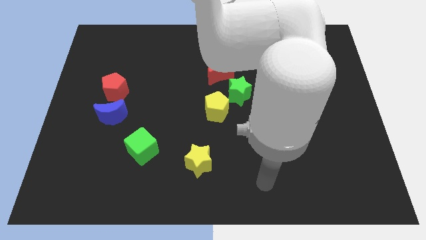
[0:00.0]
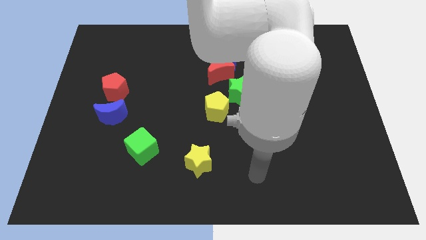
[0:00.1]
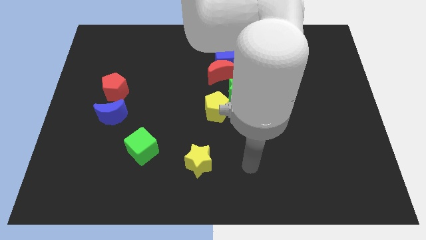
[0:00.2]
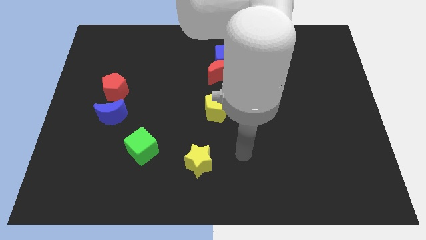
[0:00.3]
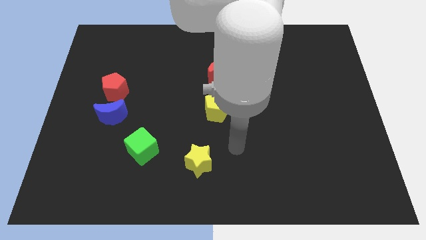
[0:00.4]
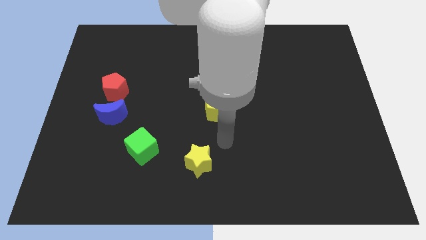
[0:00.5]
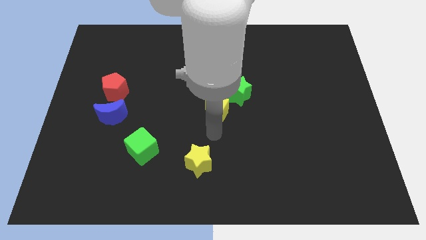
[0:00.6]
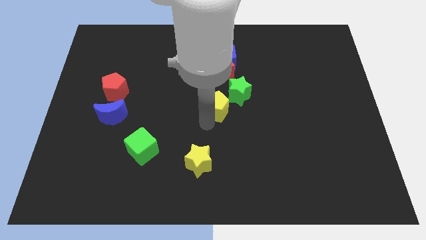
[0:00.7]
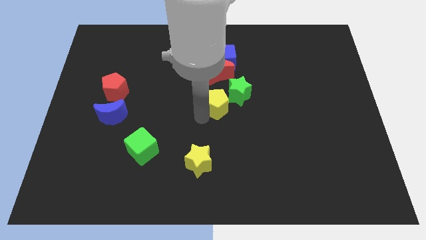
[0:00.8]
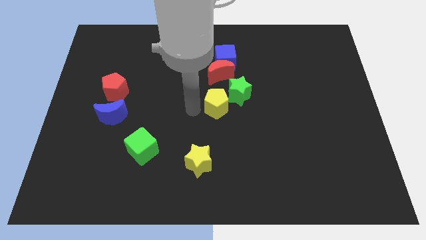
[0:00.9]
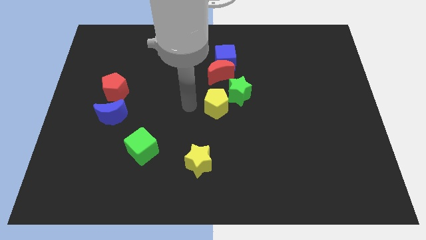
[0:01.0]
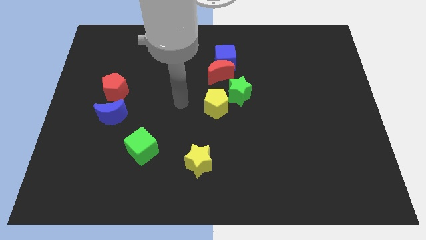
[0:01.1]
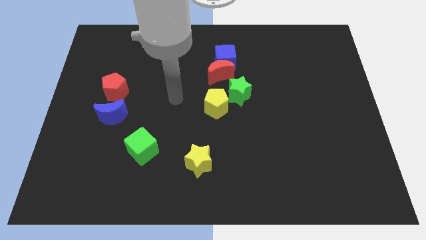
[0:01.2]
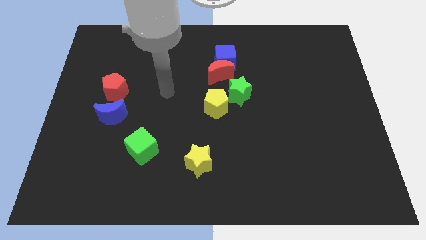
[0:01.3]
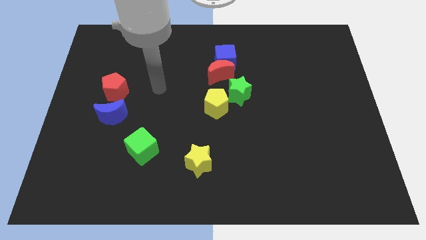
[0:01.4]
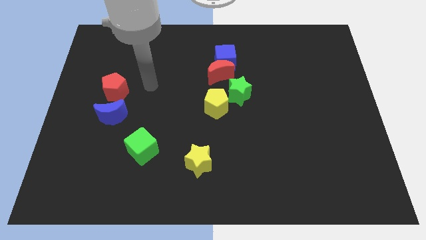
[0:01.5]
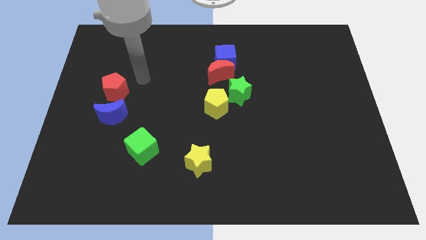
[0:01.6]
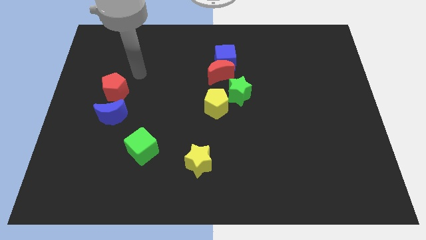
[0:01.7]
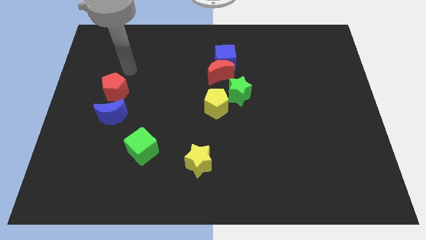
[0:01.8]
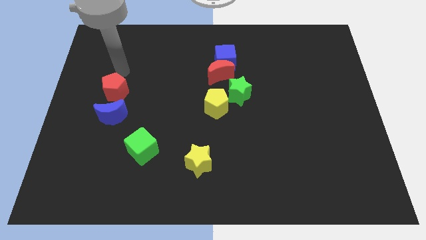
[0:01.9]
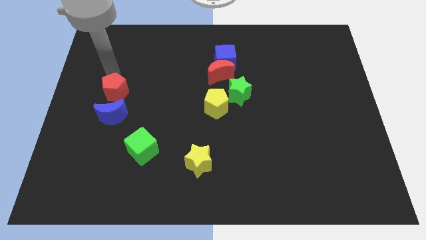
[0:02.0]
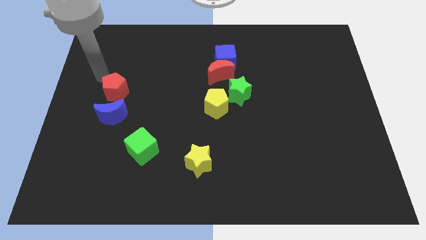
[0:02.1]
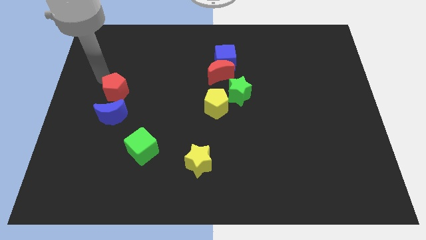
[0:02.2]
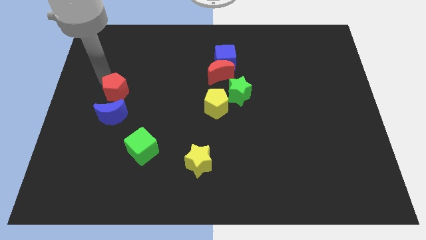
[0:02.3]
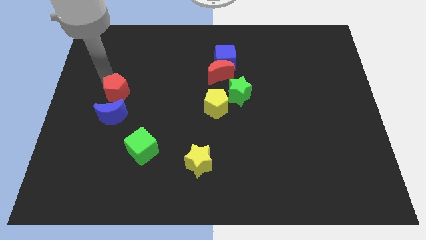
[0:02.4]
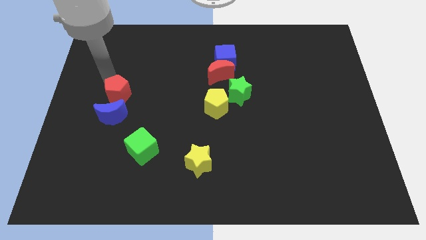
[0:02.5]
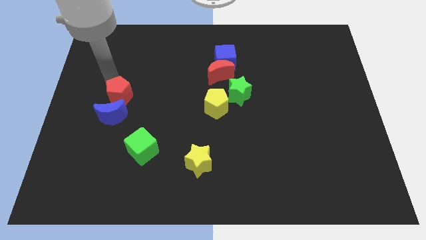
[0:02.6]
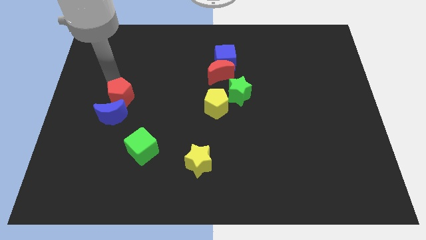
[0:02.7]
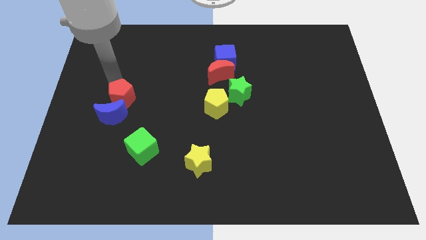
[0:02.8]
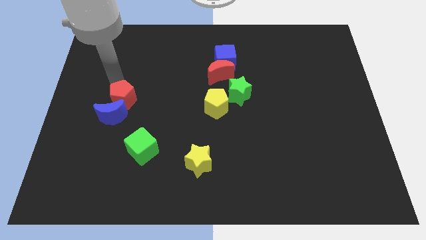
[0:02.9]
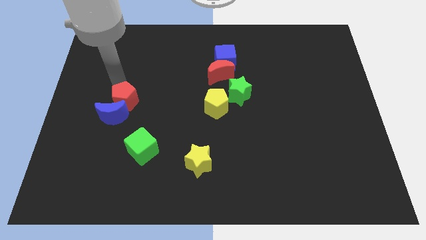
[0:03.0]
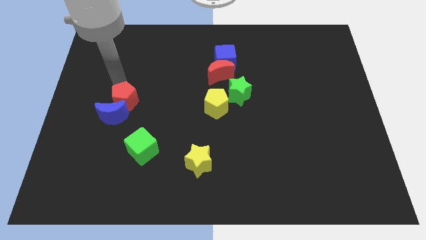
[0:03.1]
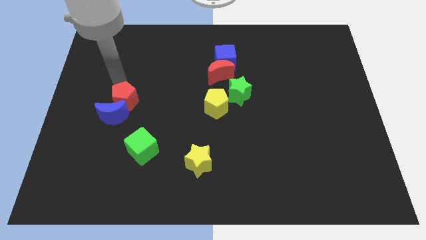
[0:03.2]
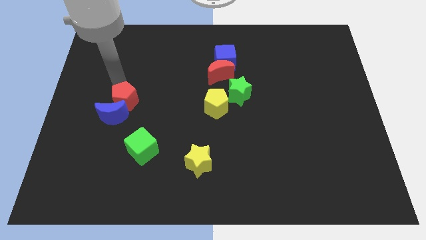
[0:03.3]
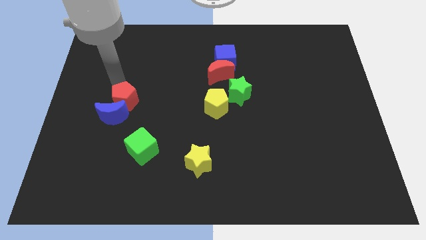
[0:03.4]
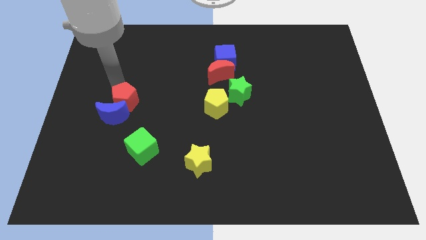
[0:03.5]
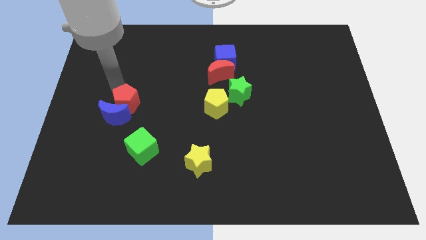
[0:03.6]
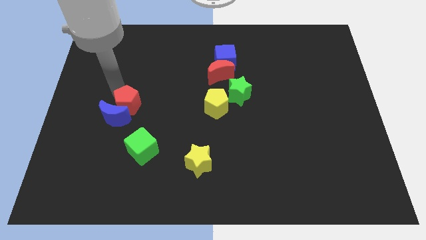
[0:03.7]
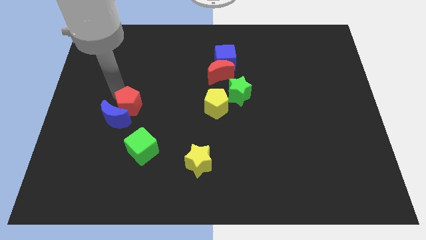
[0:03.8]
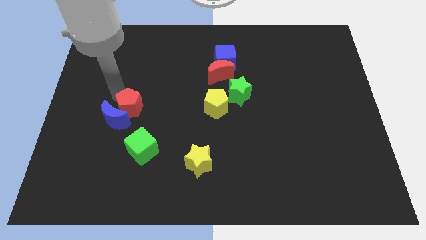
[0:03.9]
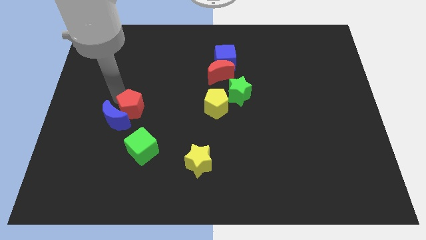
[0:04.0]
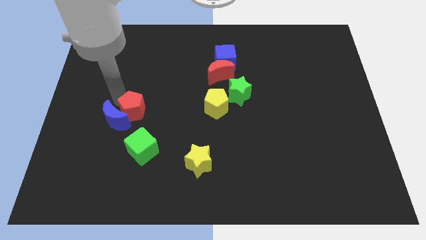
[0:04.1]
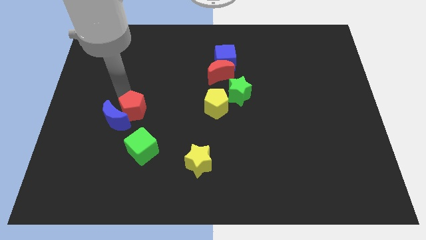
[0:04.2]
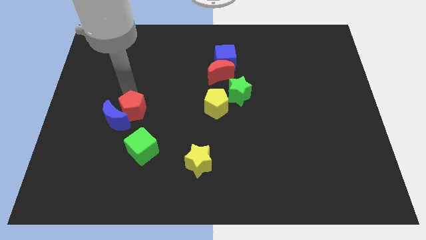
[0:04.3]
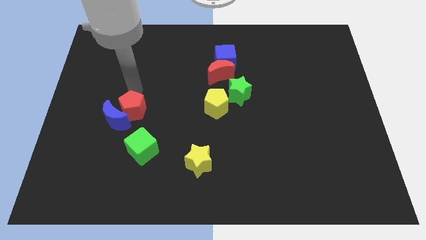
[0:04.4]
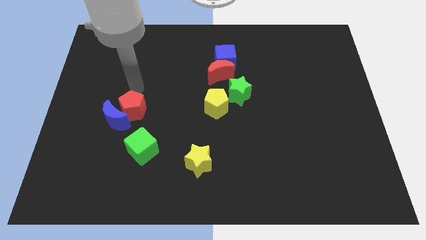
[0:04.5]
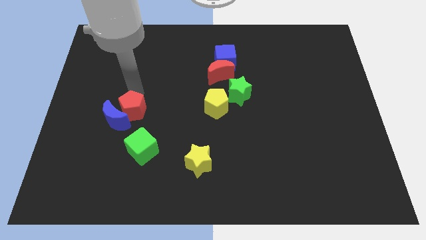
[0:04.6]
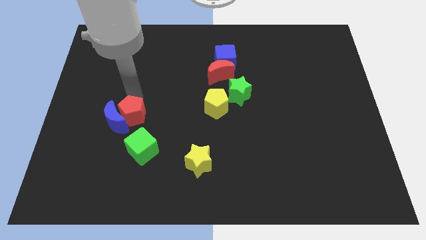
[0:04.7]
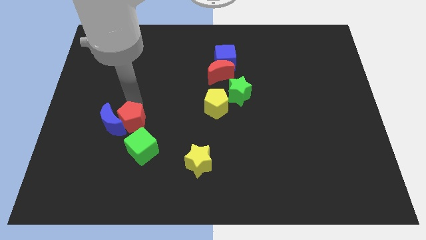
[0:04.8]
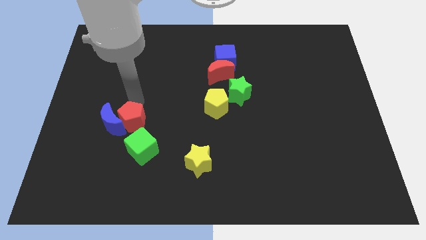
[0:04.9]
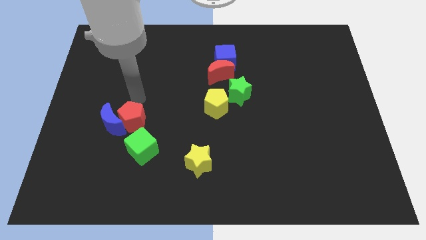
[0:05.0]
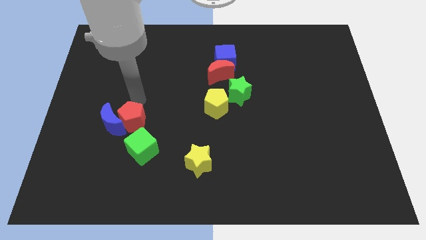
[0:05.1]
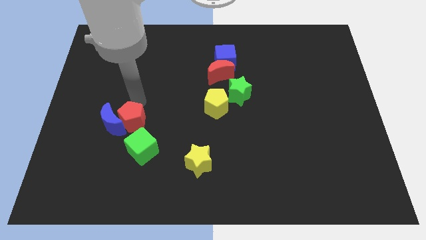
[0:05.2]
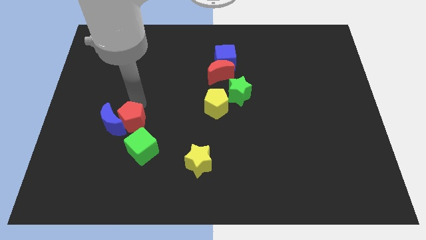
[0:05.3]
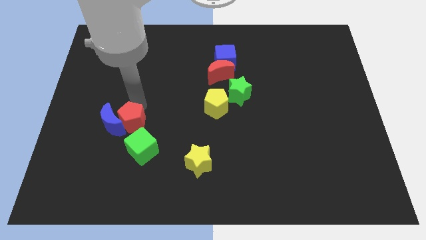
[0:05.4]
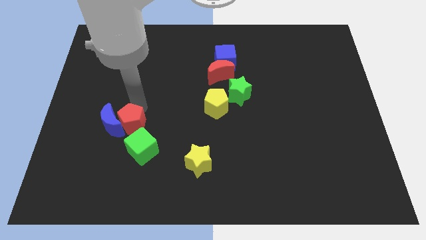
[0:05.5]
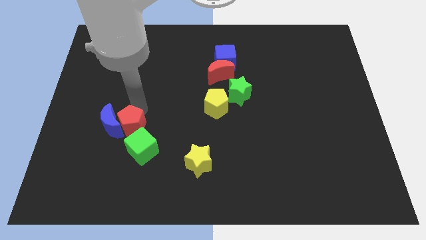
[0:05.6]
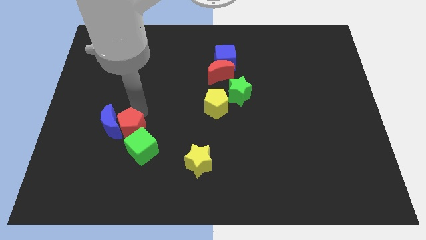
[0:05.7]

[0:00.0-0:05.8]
move the red pentagon close to the green cube
